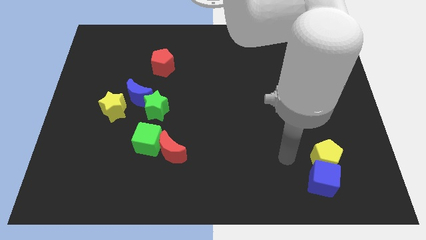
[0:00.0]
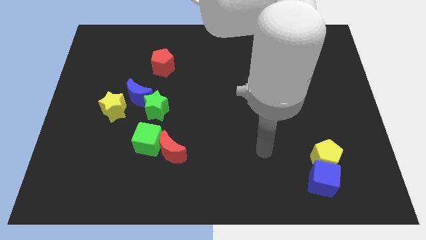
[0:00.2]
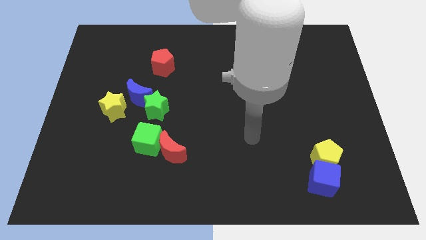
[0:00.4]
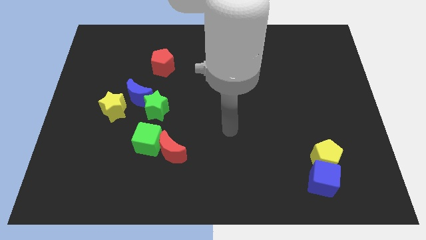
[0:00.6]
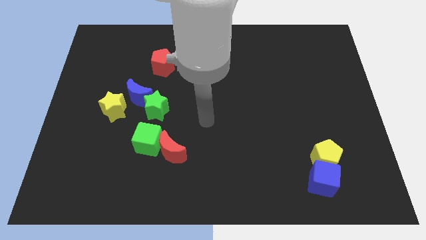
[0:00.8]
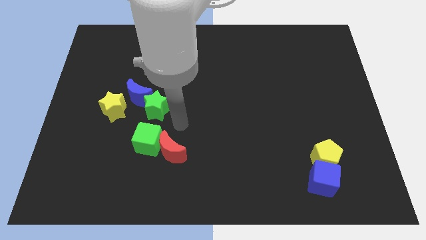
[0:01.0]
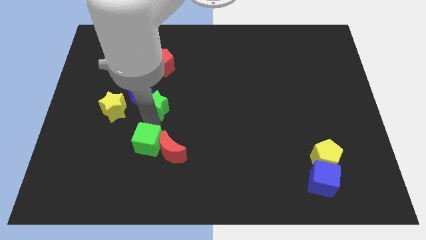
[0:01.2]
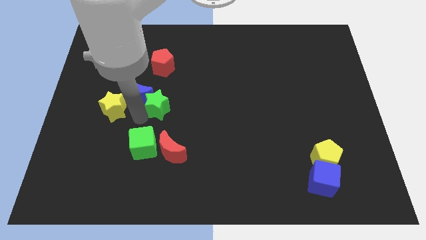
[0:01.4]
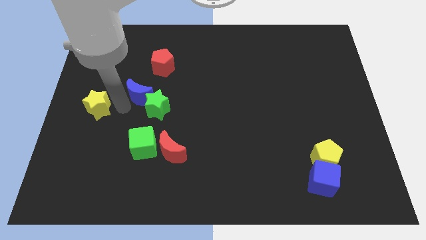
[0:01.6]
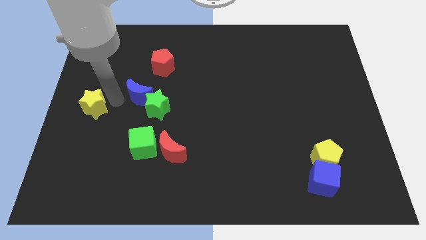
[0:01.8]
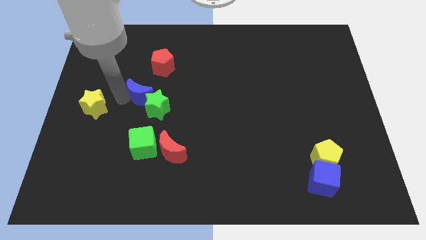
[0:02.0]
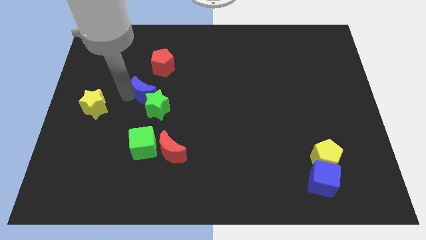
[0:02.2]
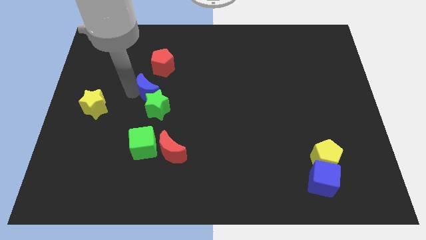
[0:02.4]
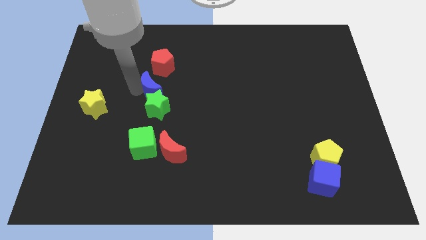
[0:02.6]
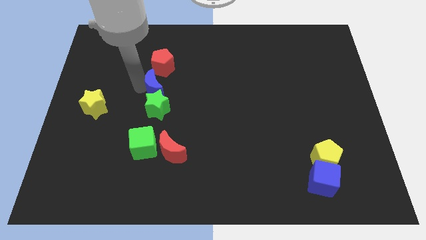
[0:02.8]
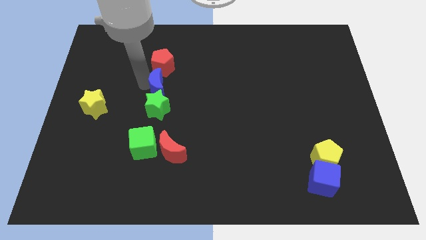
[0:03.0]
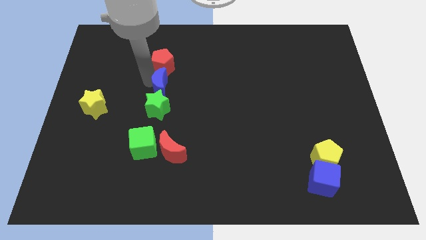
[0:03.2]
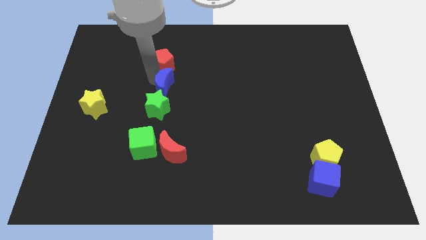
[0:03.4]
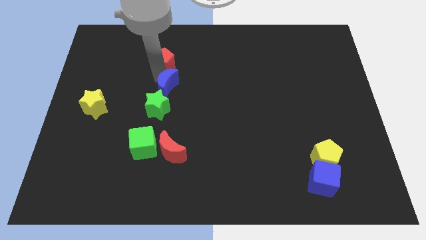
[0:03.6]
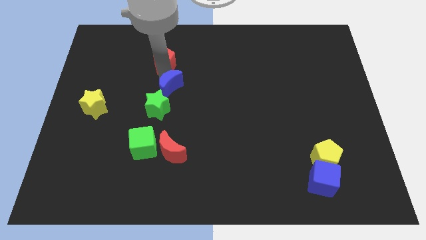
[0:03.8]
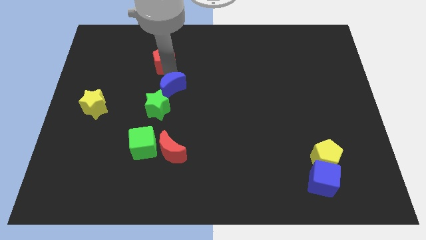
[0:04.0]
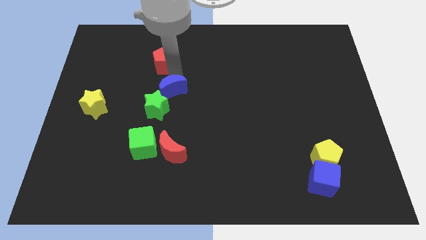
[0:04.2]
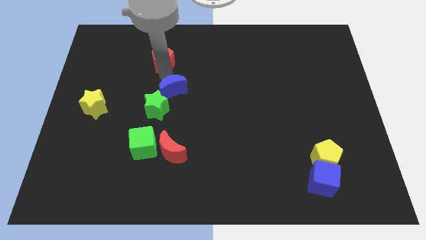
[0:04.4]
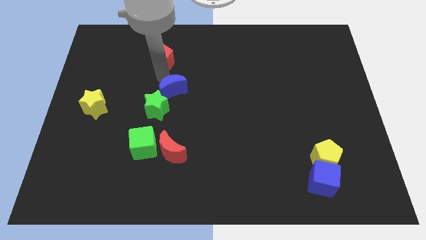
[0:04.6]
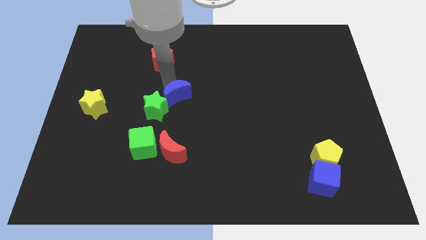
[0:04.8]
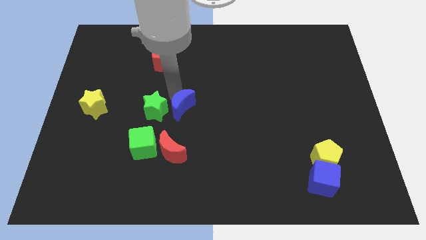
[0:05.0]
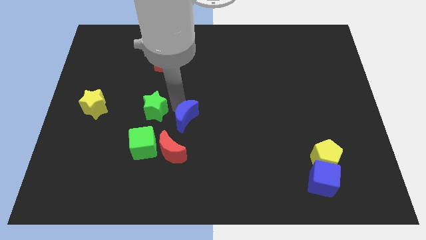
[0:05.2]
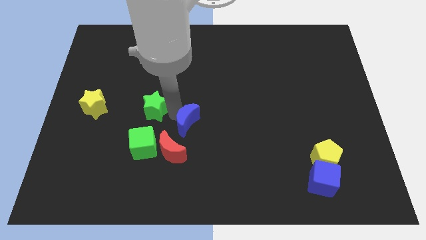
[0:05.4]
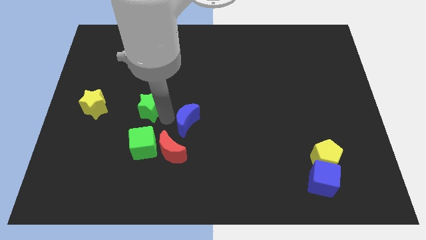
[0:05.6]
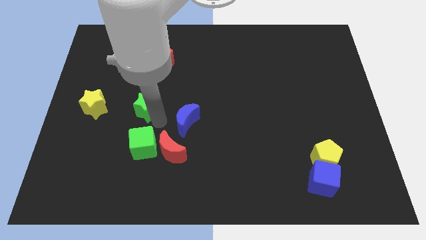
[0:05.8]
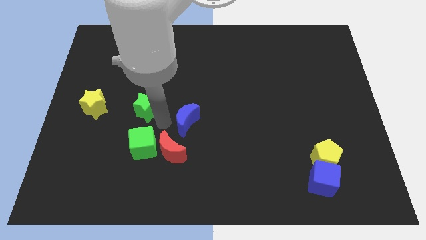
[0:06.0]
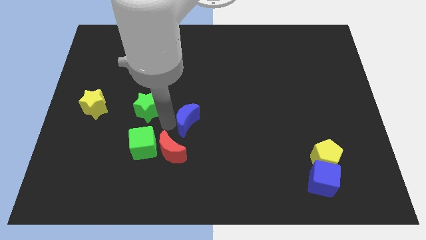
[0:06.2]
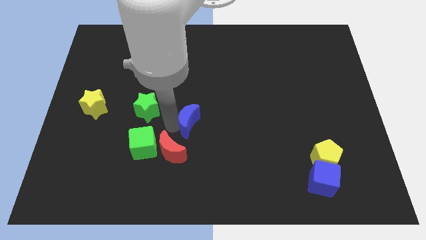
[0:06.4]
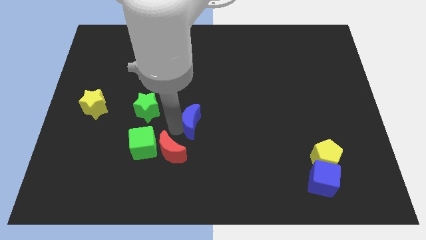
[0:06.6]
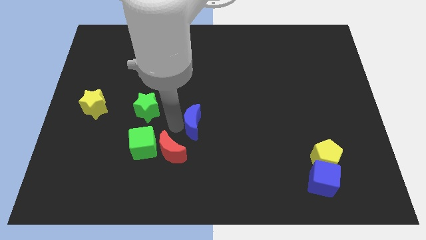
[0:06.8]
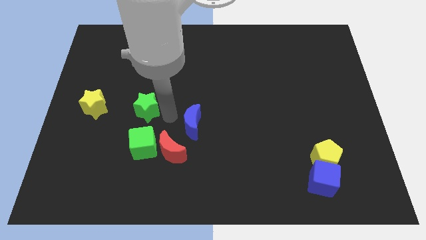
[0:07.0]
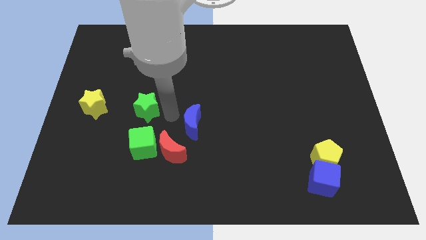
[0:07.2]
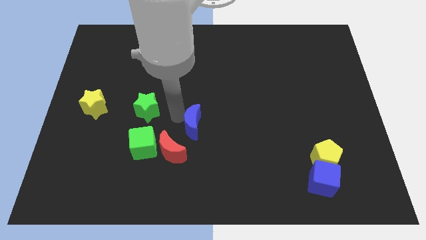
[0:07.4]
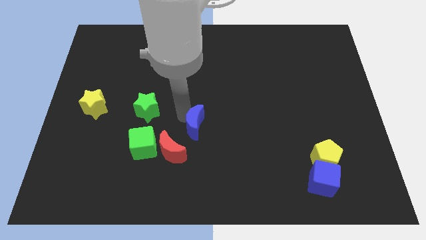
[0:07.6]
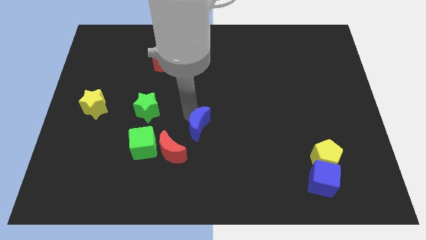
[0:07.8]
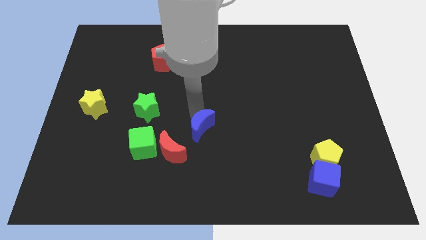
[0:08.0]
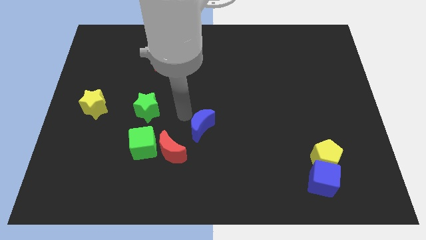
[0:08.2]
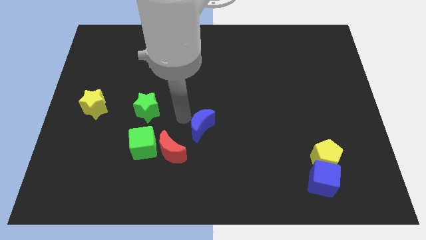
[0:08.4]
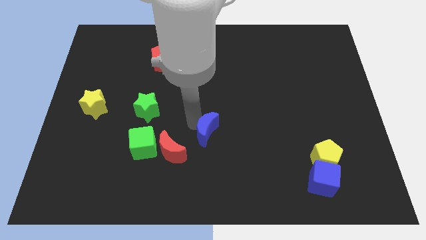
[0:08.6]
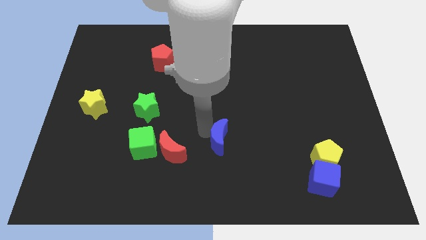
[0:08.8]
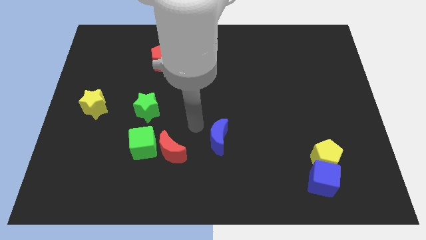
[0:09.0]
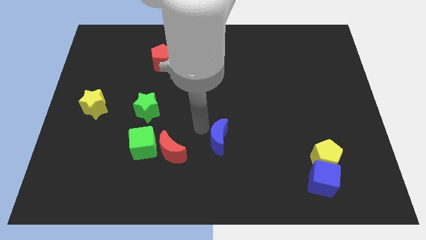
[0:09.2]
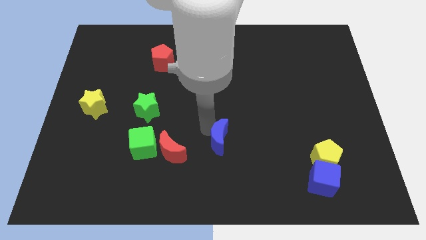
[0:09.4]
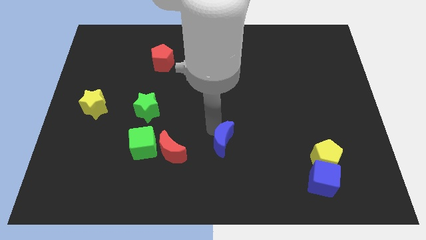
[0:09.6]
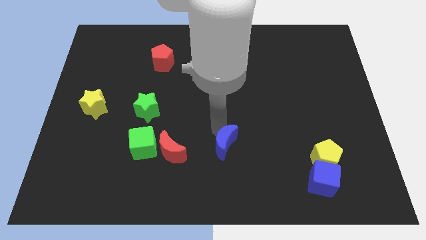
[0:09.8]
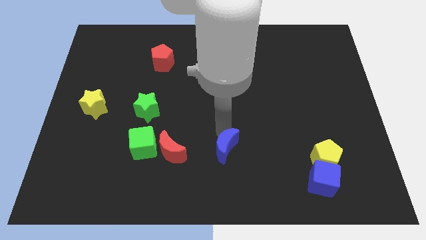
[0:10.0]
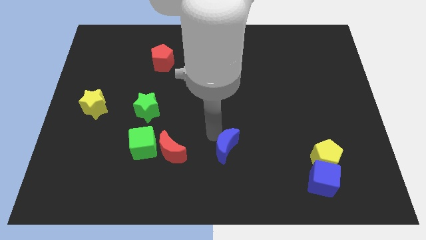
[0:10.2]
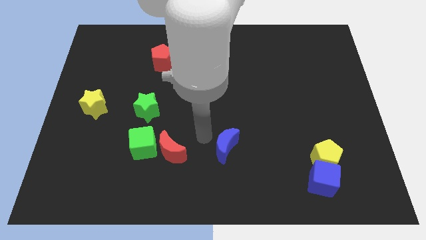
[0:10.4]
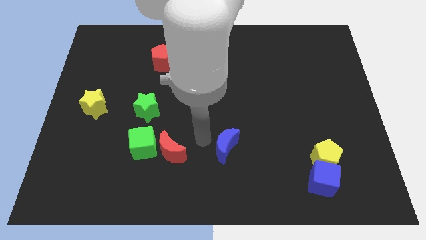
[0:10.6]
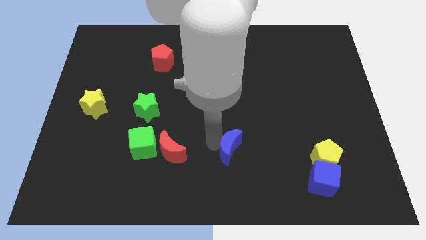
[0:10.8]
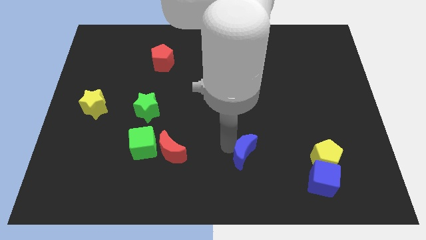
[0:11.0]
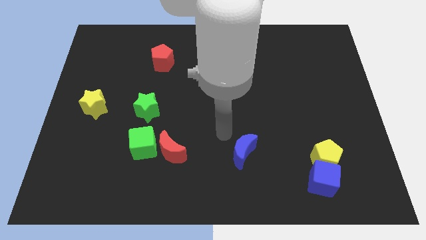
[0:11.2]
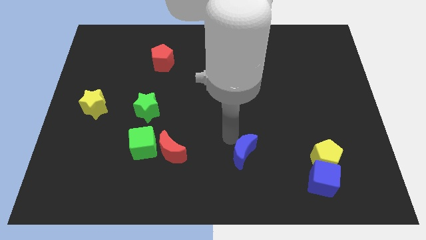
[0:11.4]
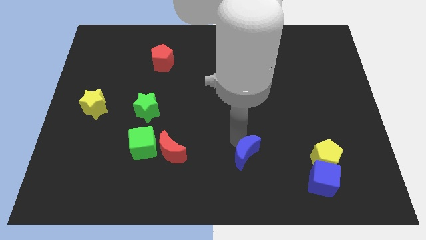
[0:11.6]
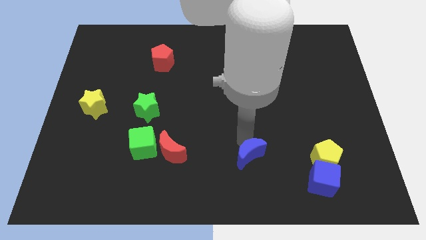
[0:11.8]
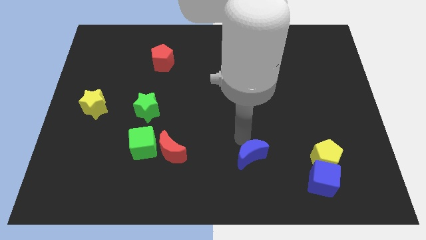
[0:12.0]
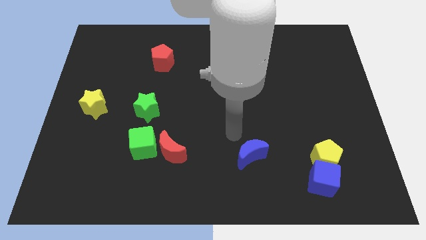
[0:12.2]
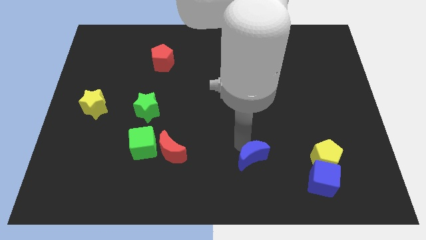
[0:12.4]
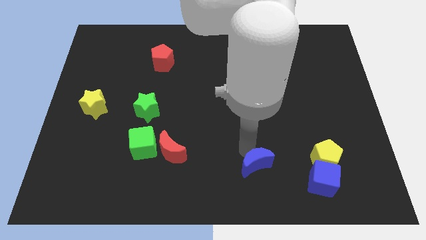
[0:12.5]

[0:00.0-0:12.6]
push the blue moon left of the blue cube

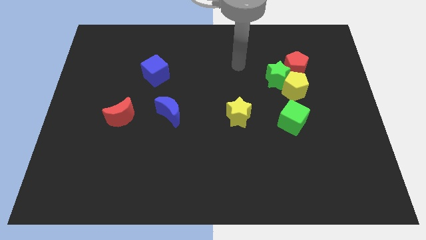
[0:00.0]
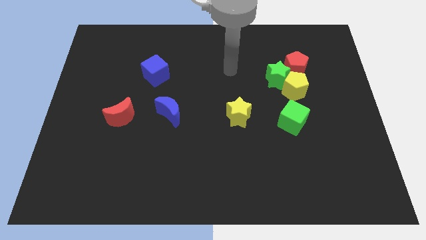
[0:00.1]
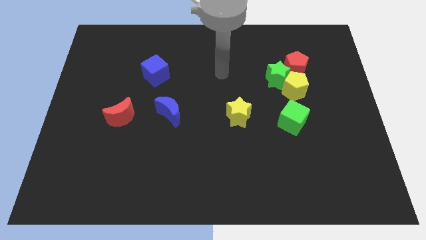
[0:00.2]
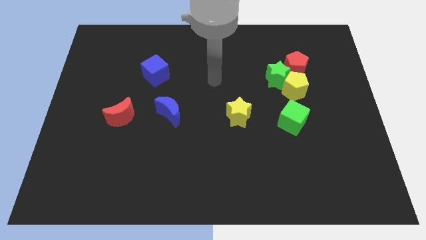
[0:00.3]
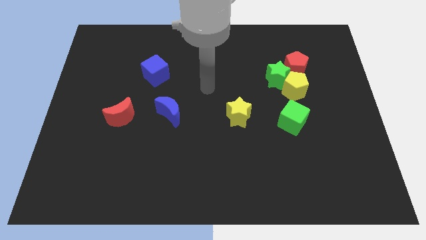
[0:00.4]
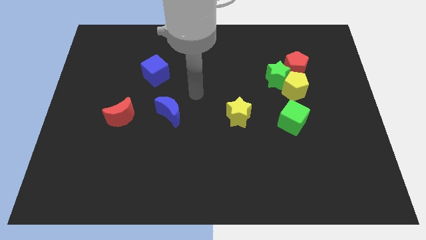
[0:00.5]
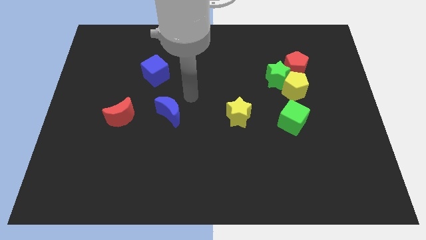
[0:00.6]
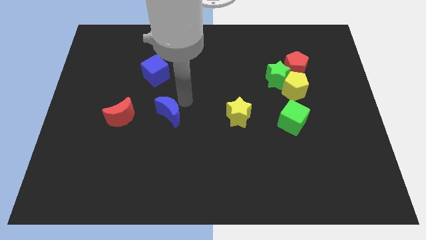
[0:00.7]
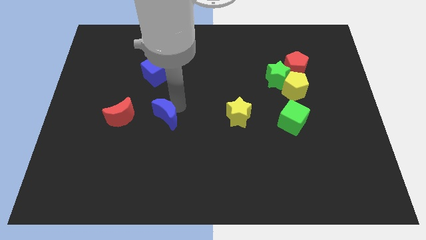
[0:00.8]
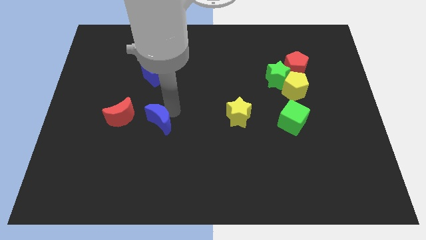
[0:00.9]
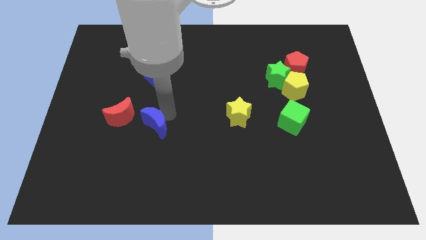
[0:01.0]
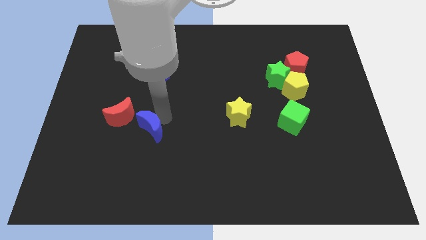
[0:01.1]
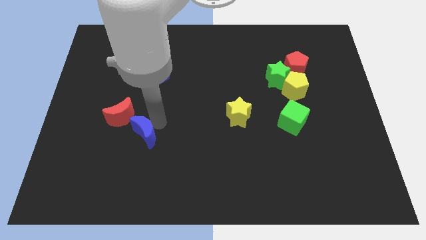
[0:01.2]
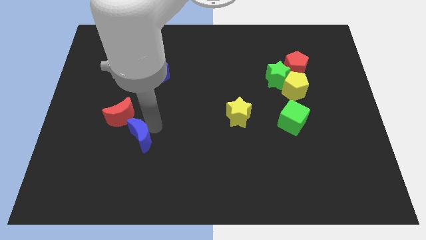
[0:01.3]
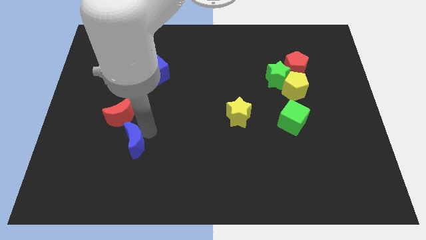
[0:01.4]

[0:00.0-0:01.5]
push the blue moon to the bottom side of the red moon
